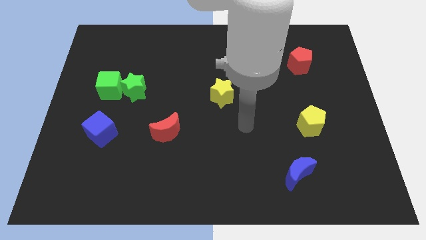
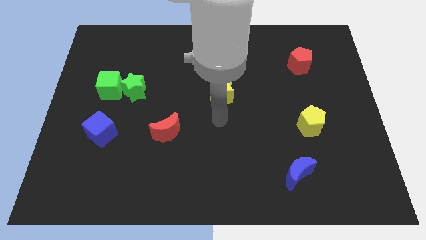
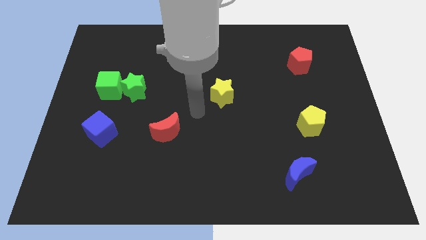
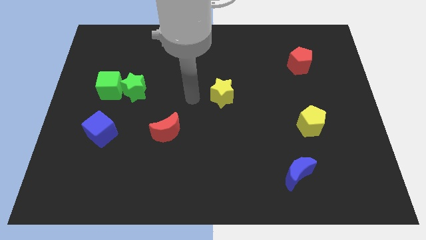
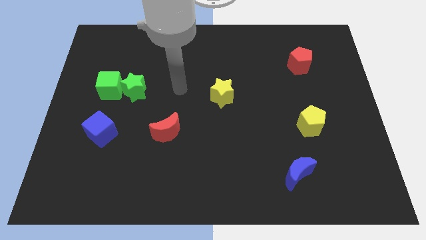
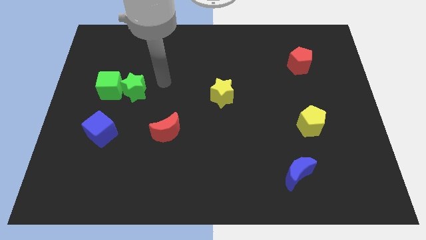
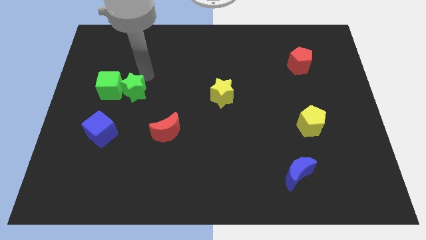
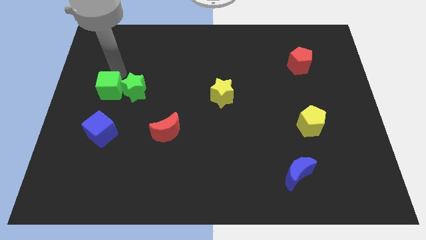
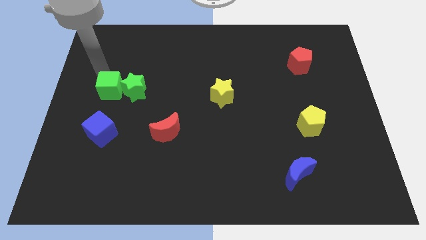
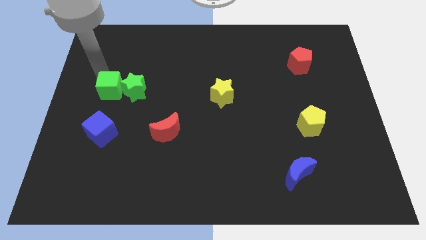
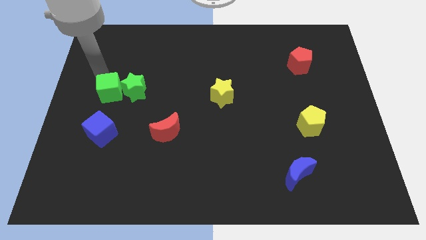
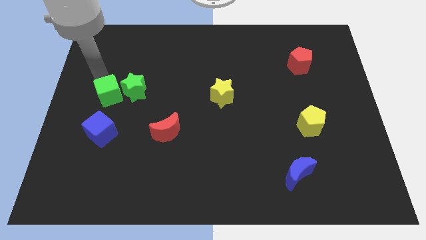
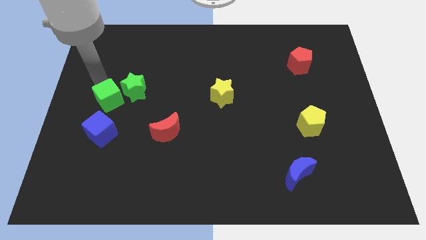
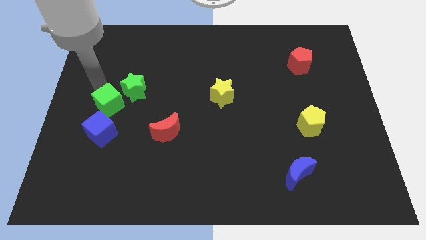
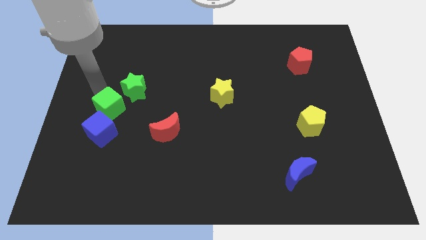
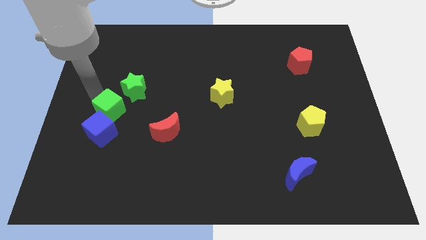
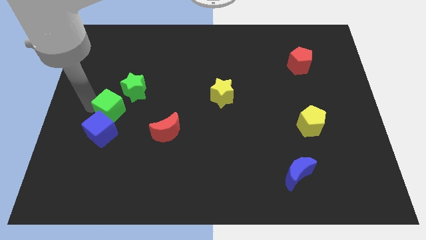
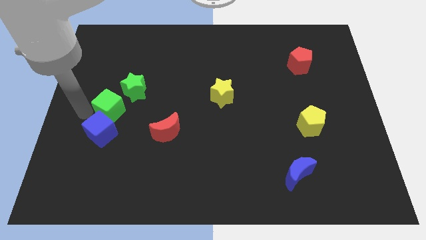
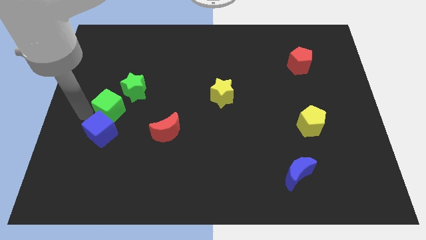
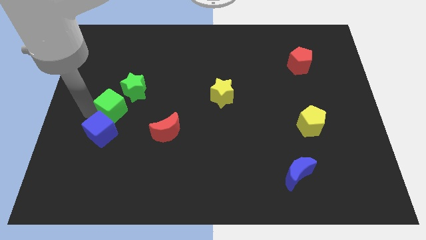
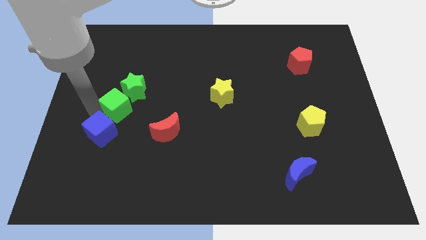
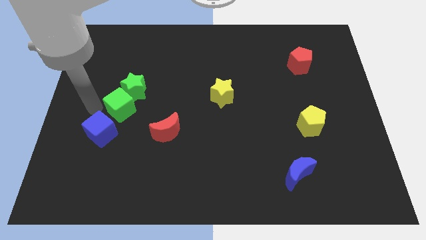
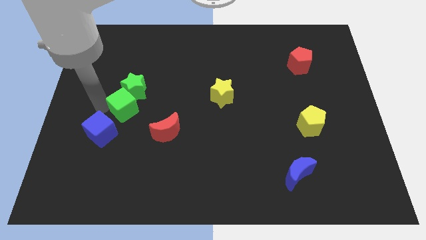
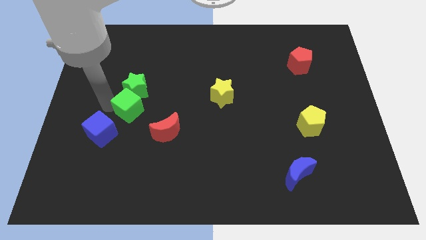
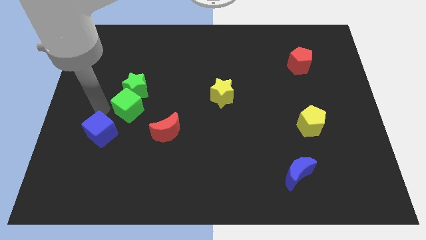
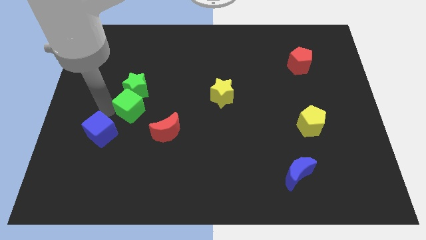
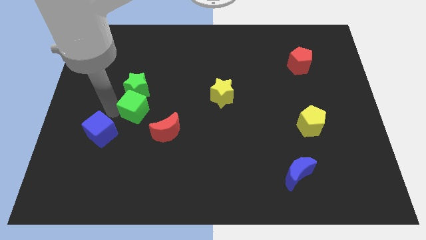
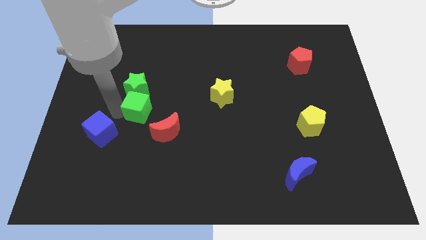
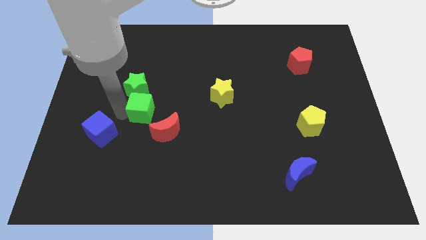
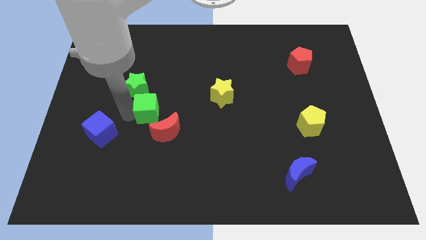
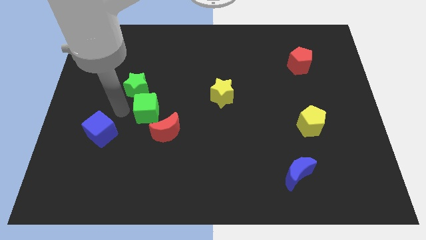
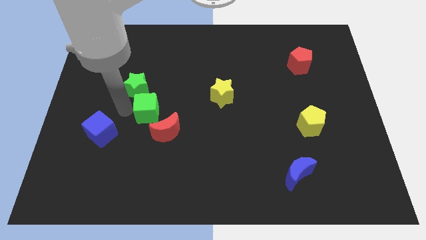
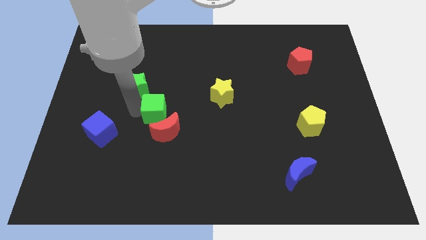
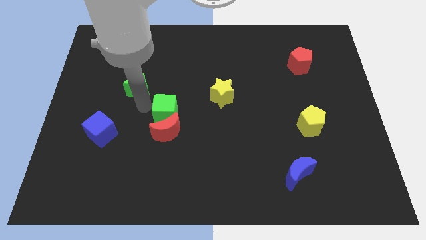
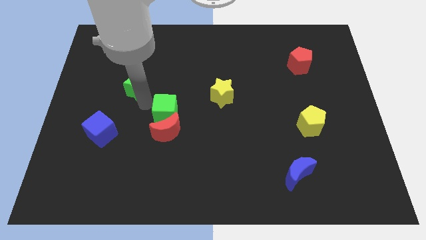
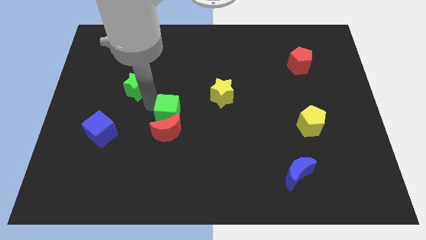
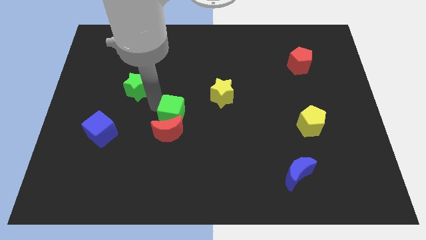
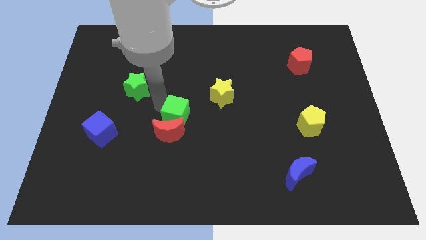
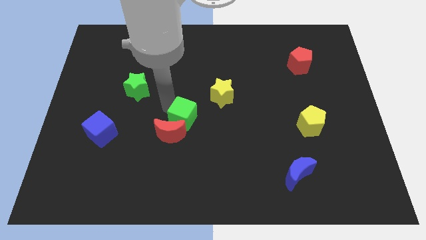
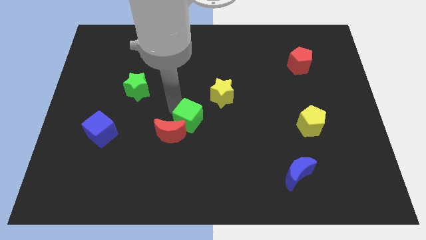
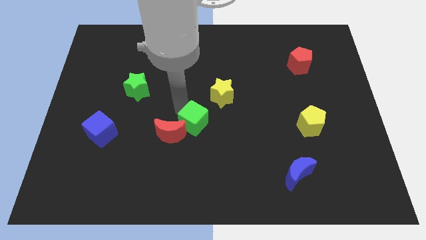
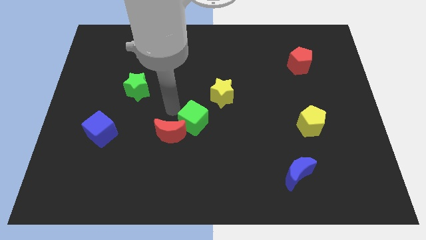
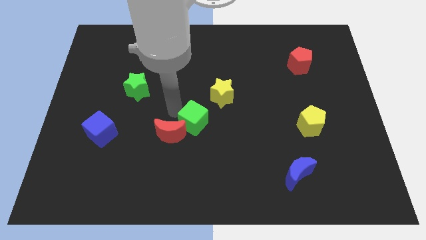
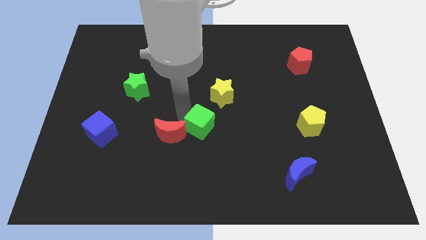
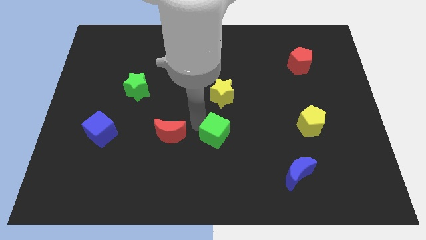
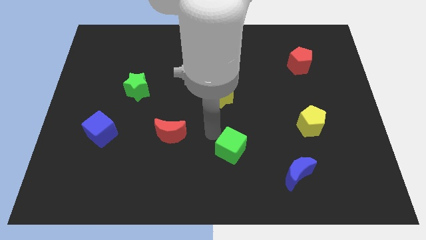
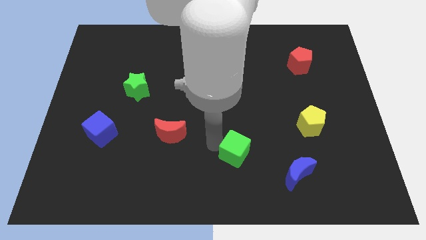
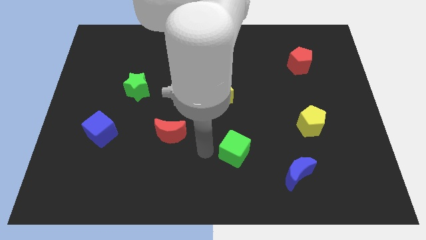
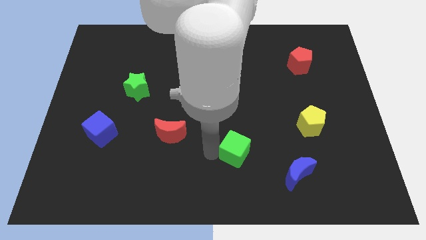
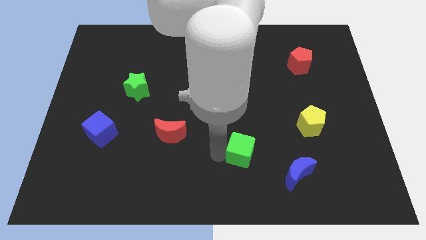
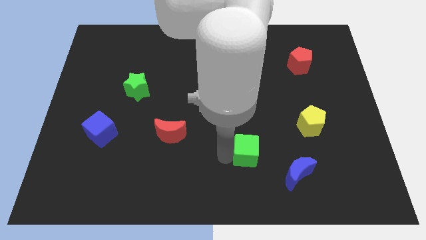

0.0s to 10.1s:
put the green cube diagonally up and to the left of the blue moon

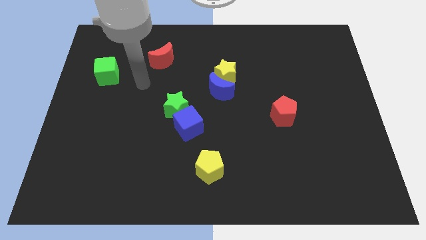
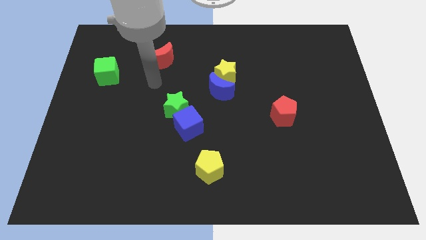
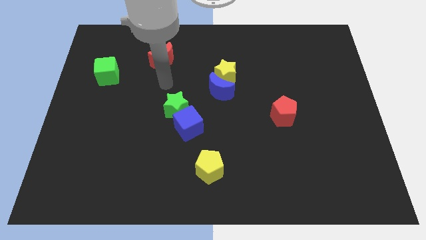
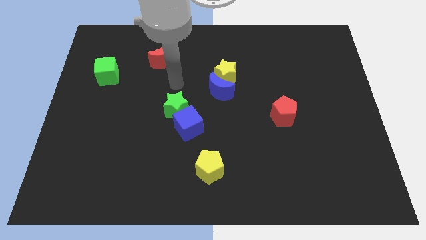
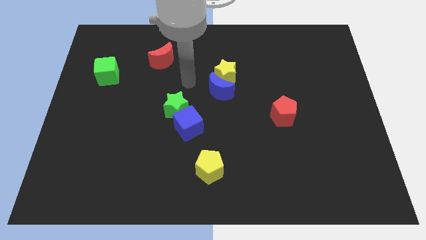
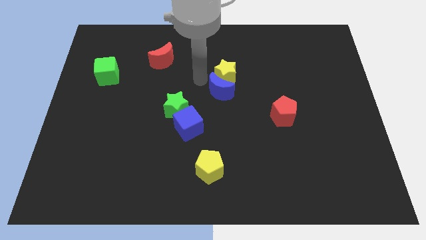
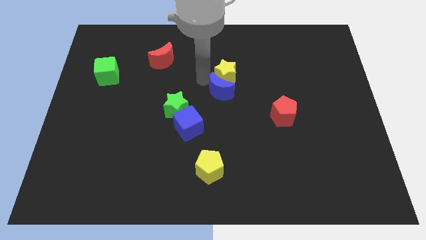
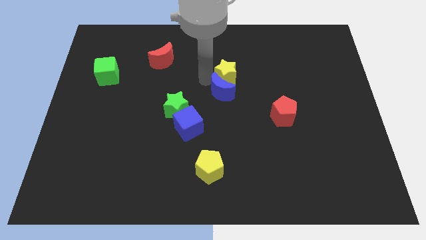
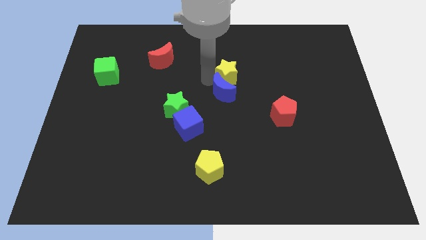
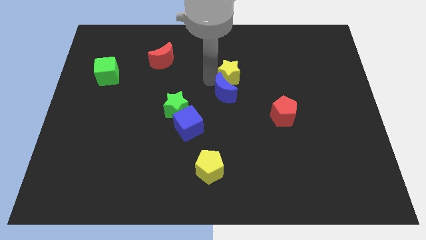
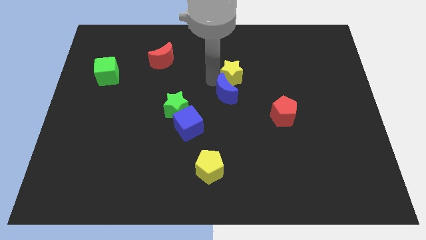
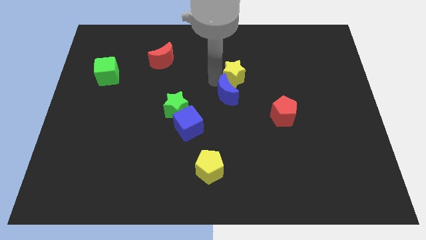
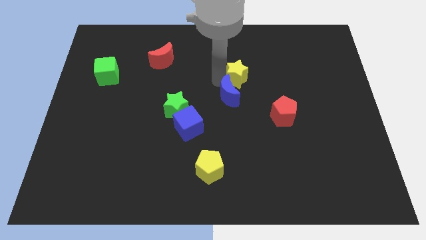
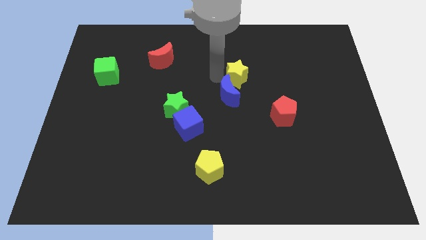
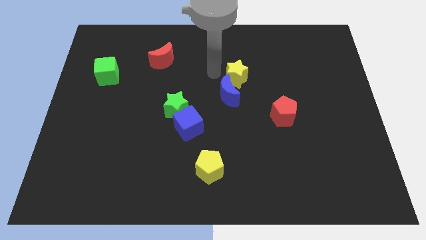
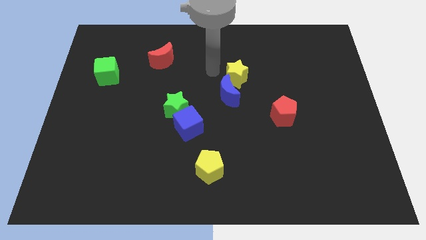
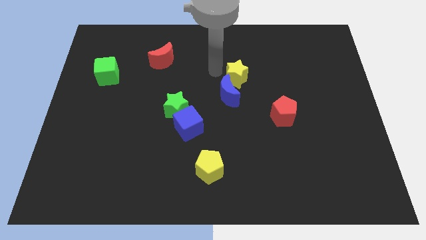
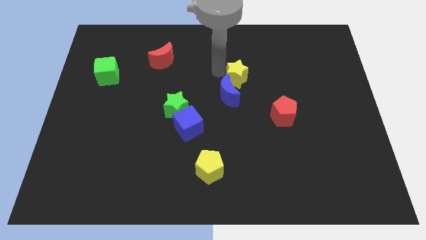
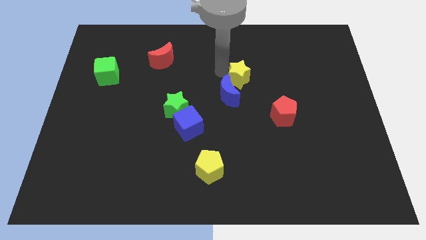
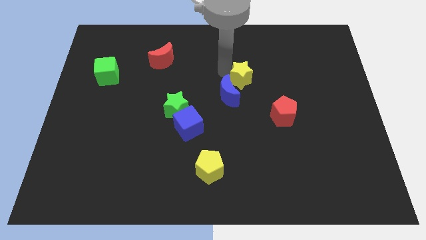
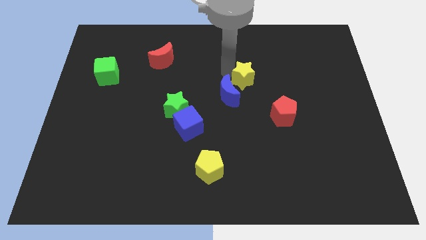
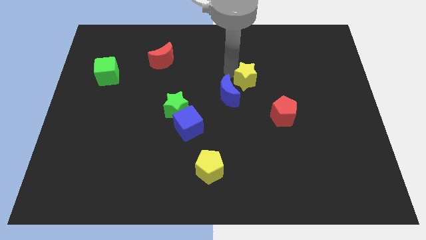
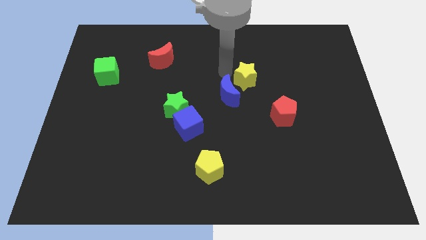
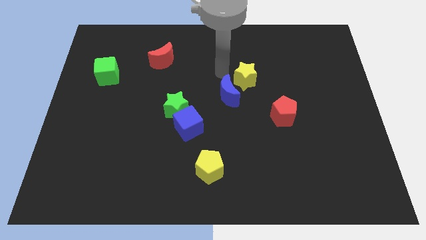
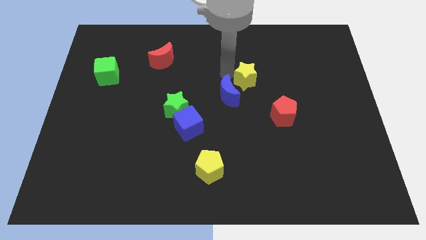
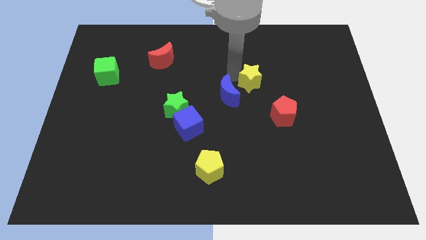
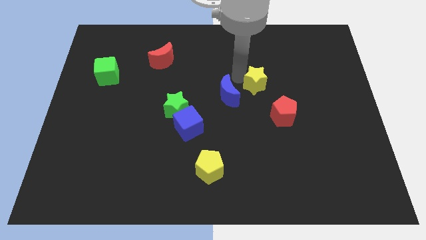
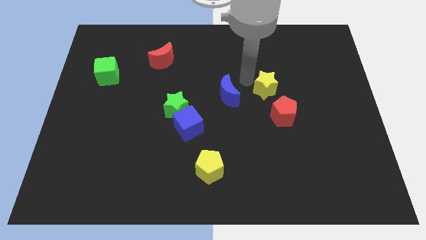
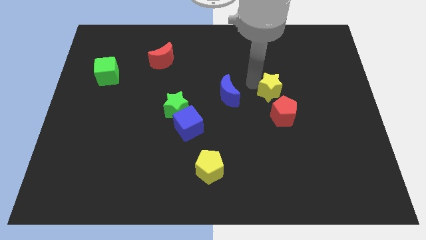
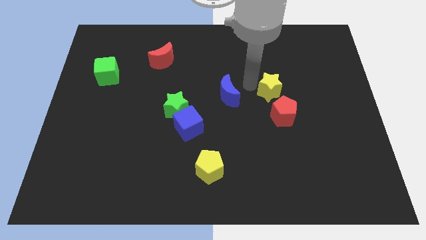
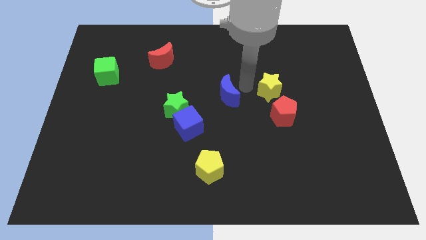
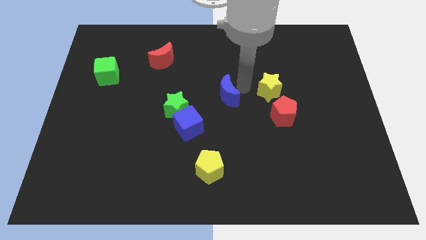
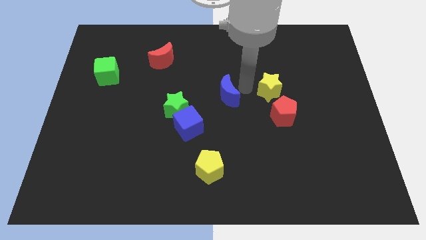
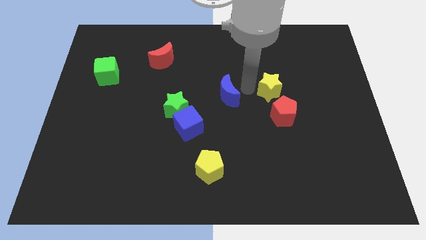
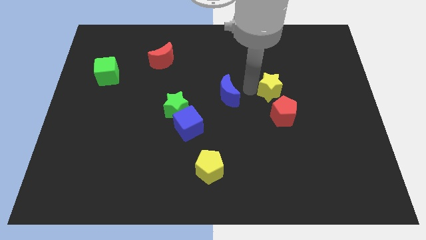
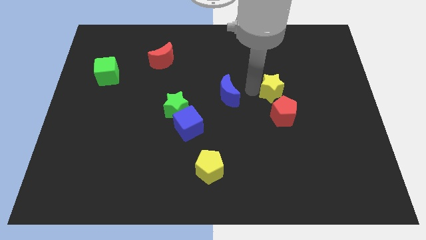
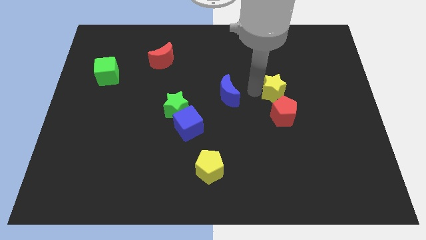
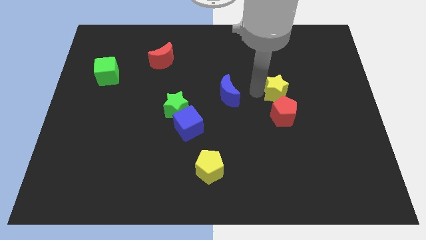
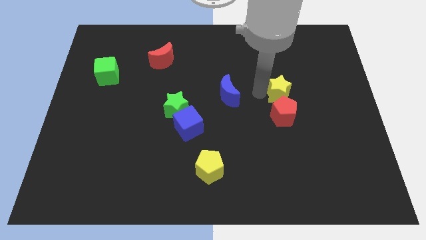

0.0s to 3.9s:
push the yellow star to the top right of the red pentagon
